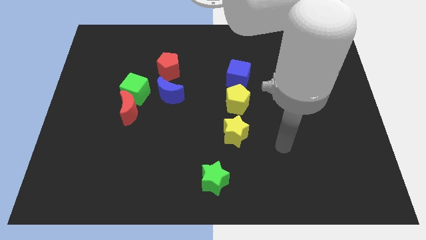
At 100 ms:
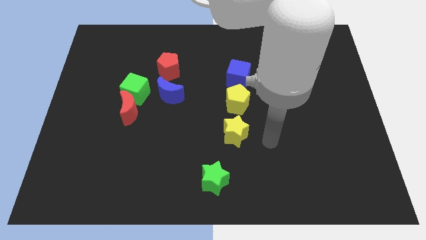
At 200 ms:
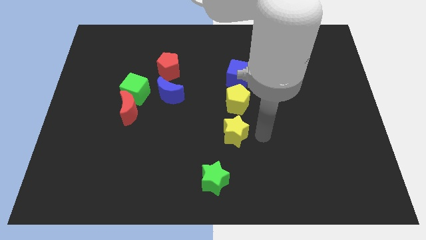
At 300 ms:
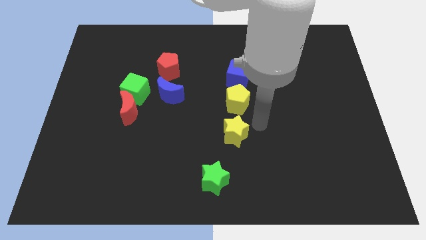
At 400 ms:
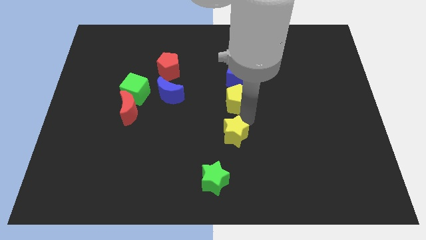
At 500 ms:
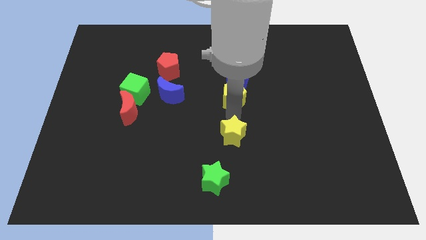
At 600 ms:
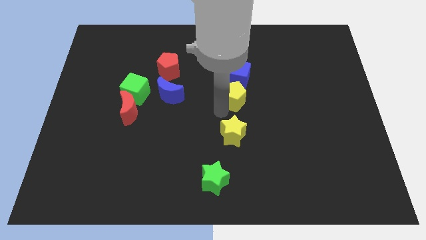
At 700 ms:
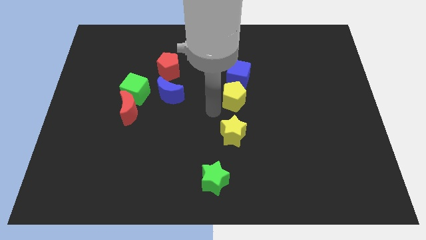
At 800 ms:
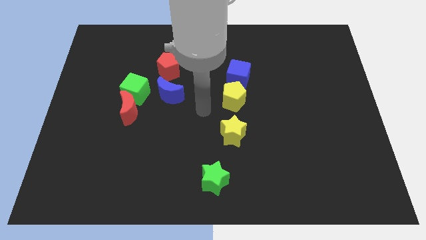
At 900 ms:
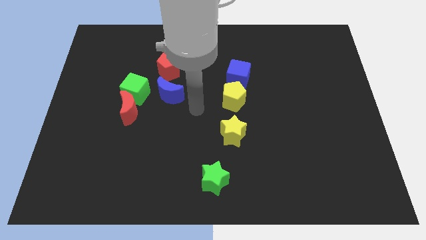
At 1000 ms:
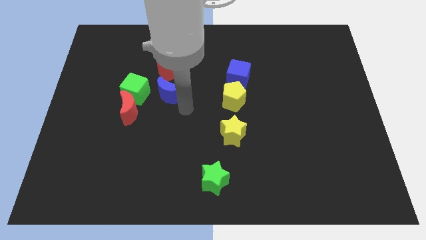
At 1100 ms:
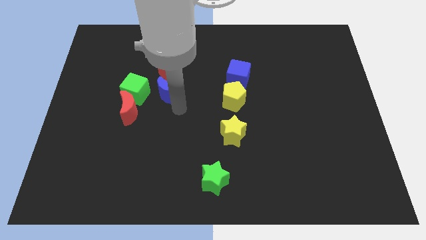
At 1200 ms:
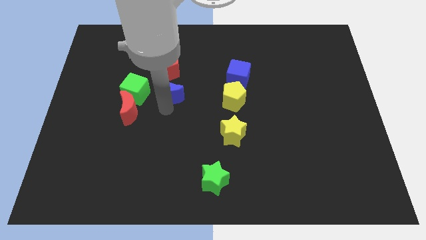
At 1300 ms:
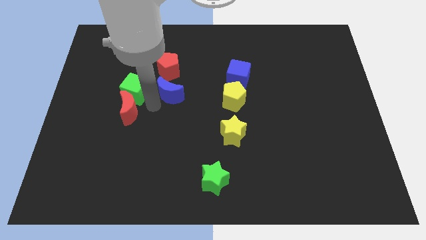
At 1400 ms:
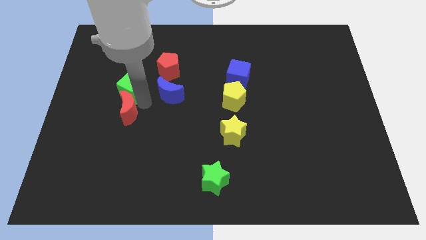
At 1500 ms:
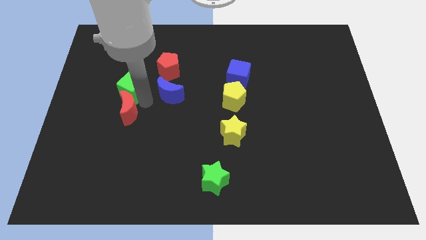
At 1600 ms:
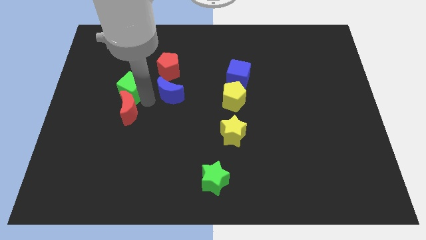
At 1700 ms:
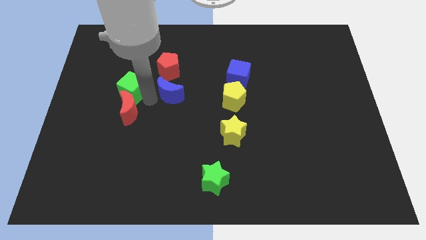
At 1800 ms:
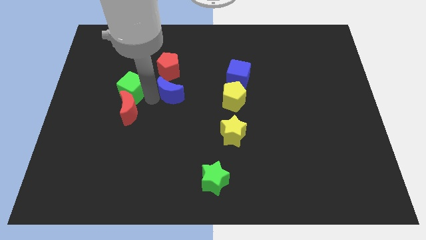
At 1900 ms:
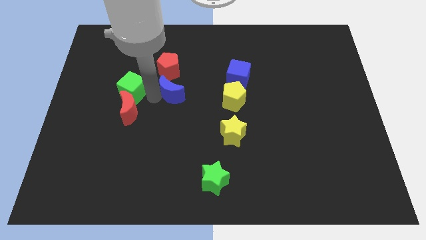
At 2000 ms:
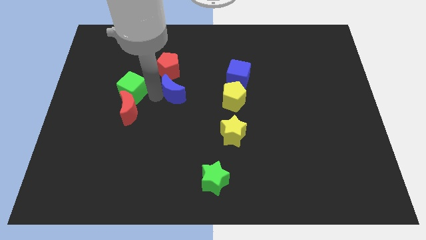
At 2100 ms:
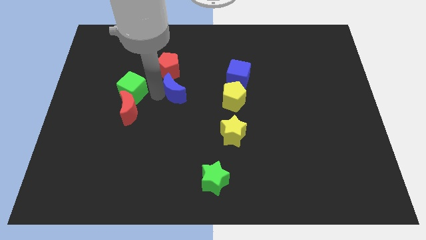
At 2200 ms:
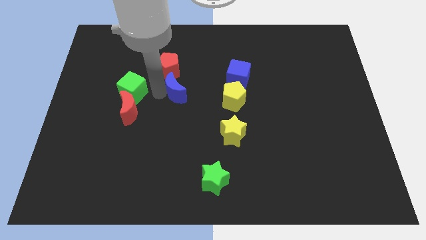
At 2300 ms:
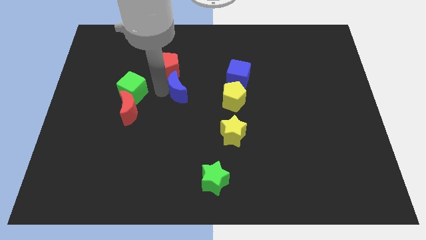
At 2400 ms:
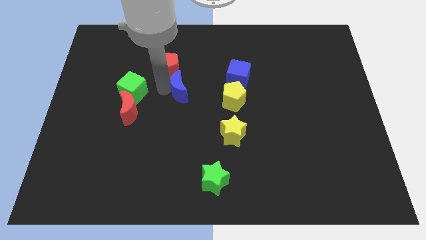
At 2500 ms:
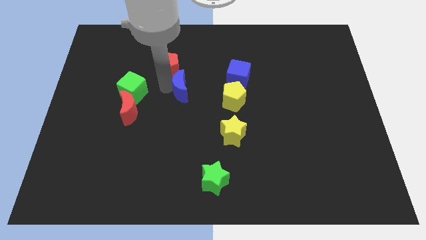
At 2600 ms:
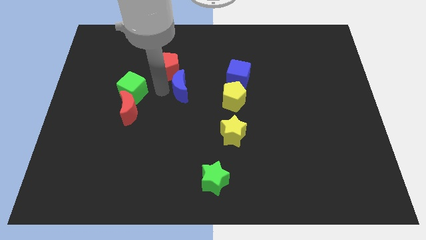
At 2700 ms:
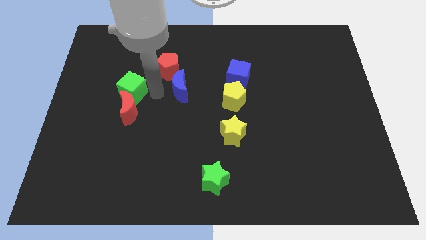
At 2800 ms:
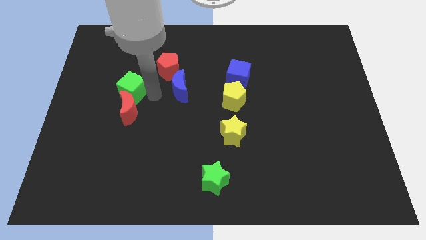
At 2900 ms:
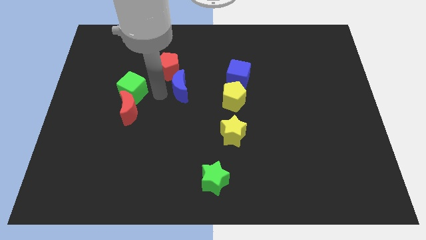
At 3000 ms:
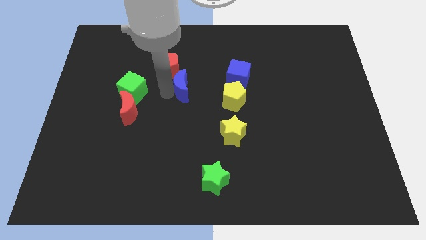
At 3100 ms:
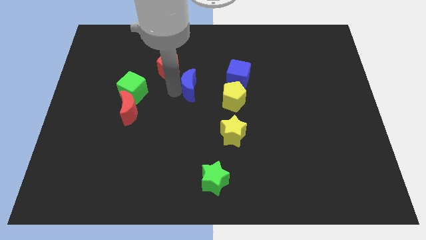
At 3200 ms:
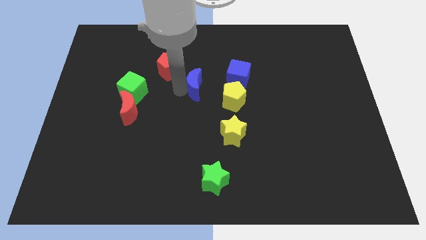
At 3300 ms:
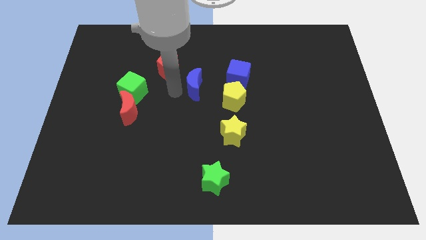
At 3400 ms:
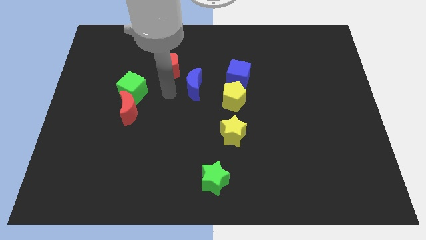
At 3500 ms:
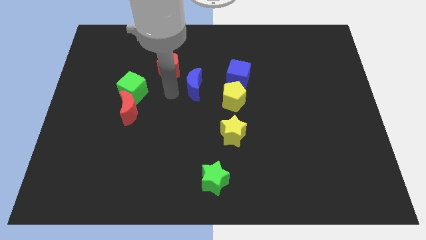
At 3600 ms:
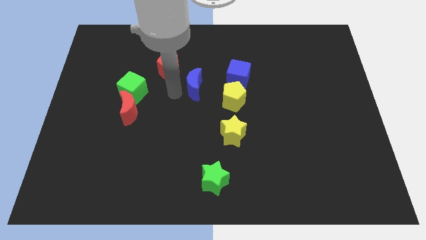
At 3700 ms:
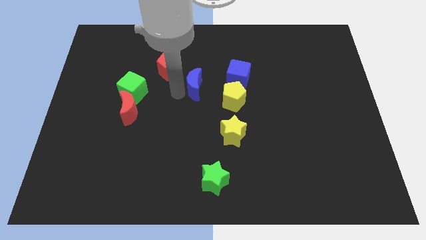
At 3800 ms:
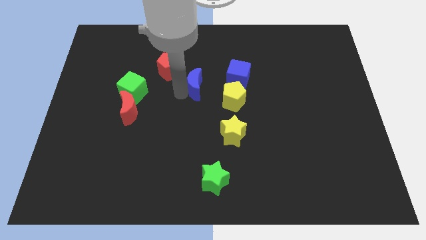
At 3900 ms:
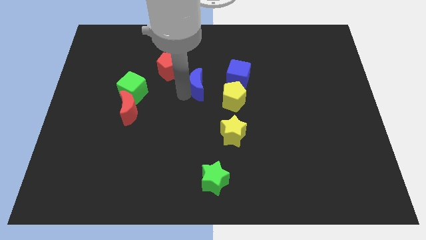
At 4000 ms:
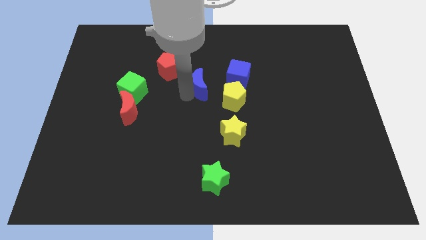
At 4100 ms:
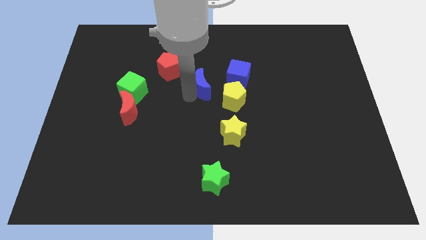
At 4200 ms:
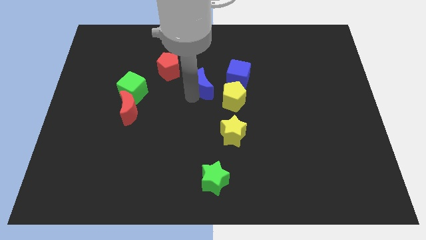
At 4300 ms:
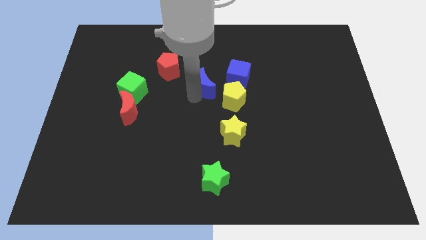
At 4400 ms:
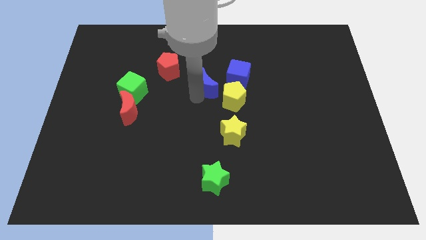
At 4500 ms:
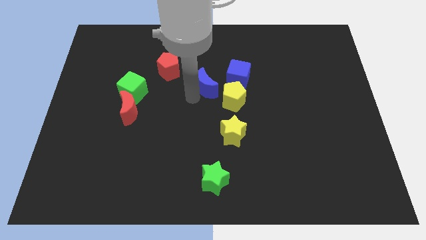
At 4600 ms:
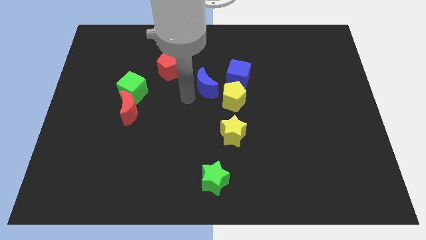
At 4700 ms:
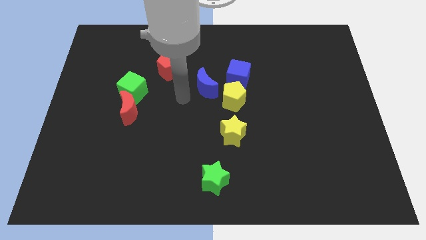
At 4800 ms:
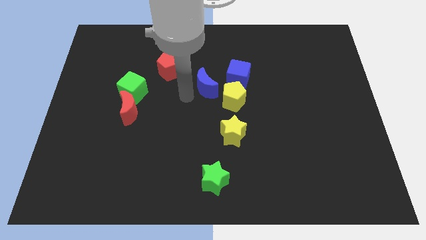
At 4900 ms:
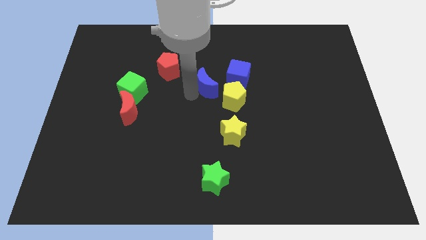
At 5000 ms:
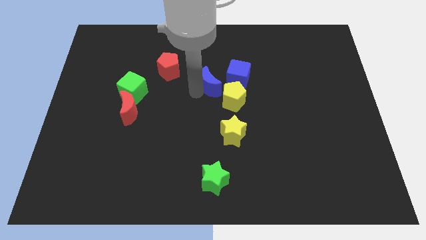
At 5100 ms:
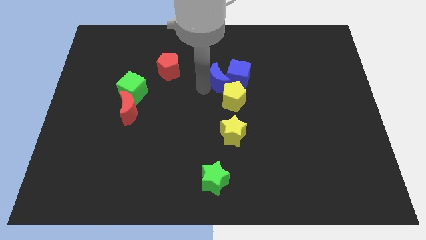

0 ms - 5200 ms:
slide the blue moon next to the blue cube

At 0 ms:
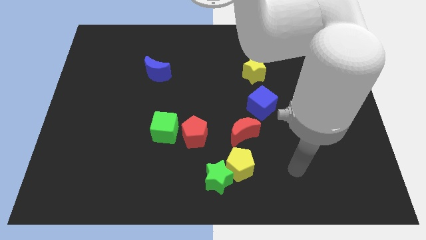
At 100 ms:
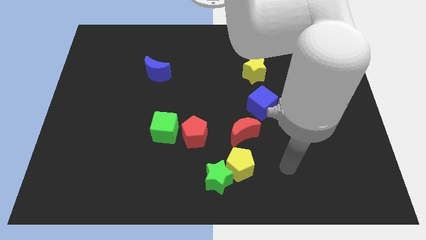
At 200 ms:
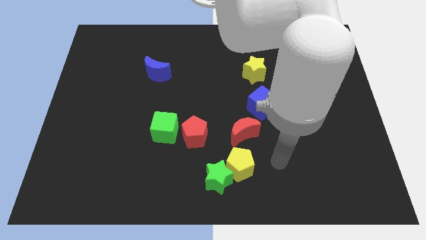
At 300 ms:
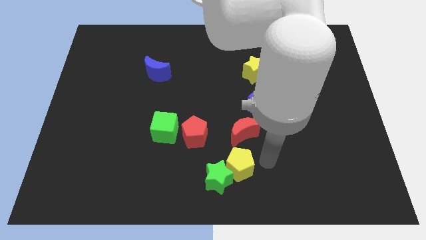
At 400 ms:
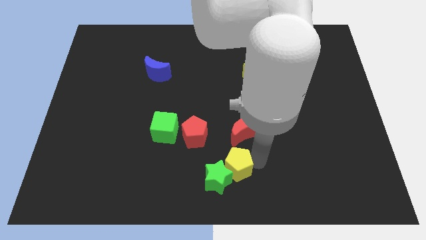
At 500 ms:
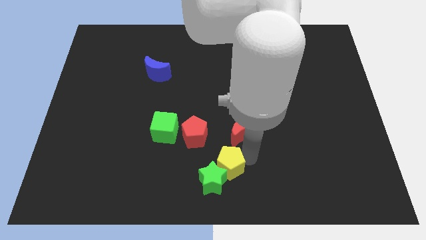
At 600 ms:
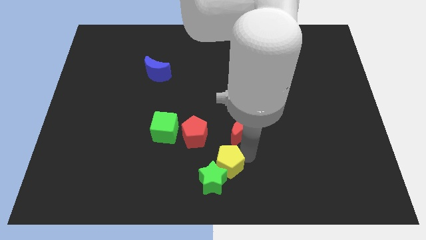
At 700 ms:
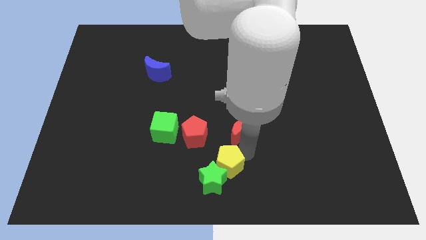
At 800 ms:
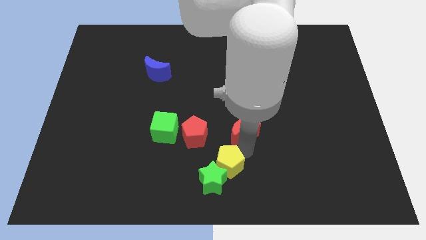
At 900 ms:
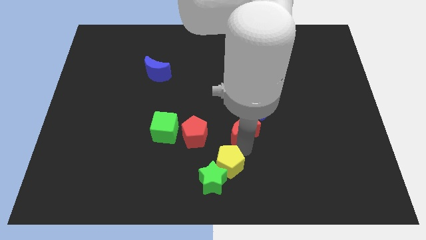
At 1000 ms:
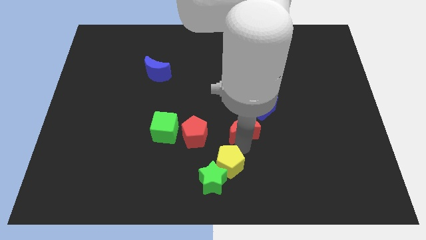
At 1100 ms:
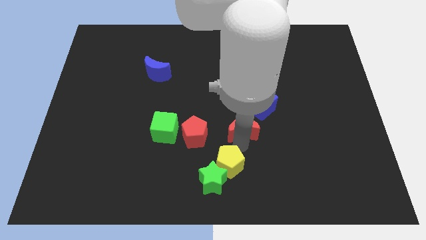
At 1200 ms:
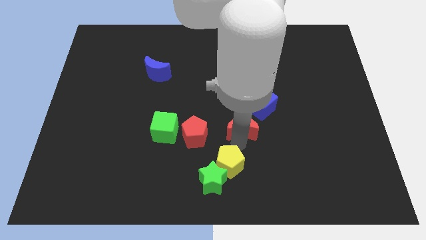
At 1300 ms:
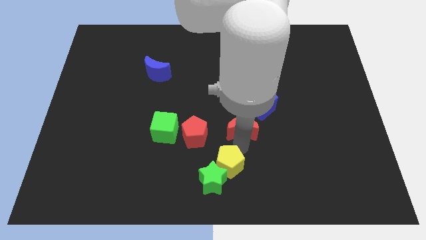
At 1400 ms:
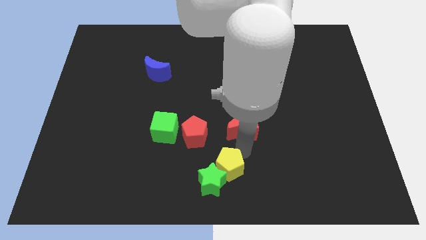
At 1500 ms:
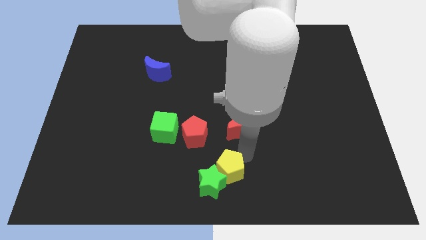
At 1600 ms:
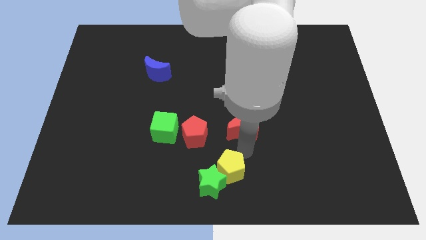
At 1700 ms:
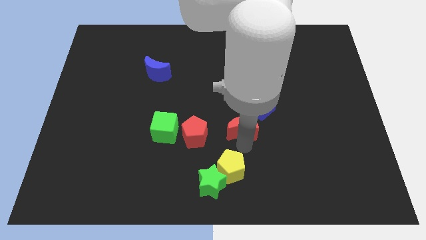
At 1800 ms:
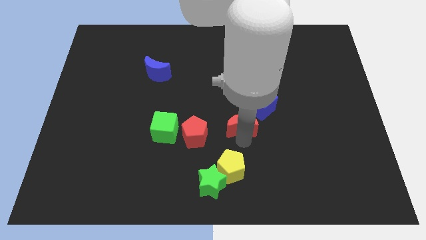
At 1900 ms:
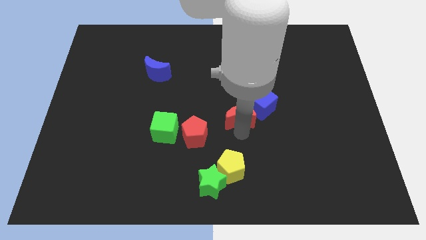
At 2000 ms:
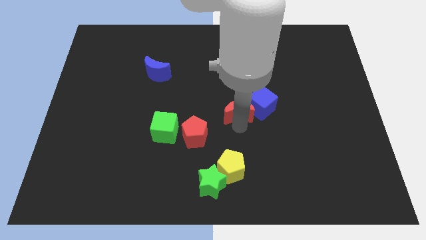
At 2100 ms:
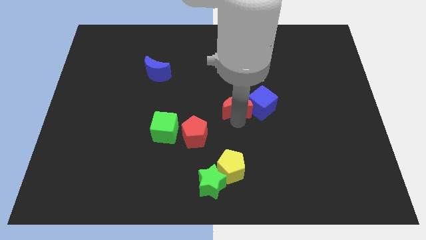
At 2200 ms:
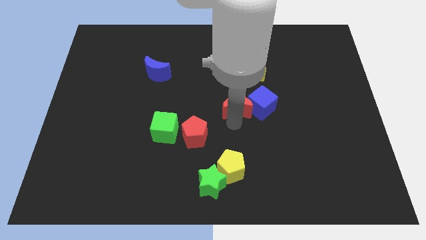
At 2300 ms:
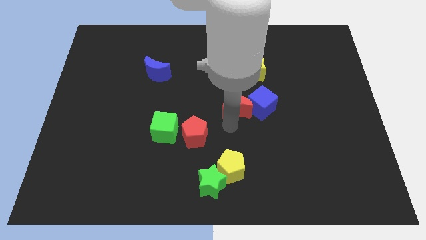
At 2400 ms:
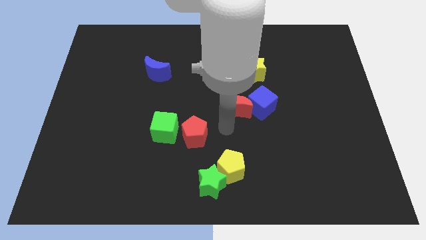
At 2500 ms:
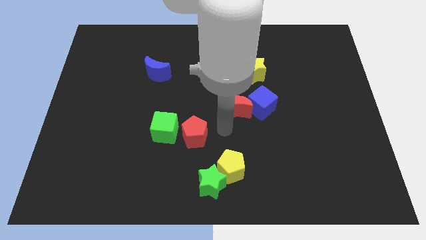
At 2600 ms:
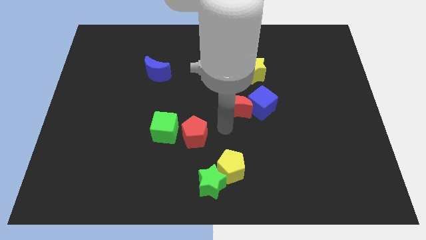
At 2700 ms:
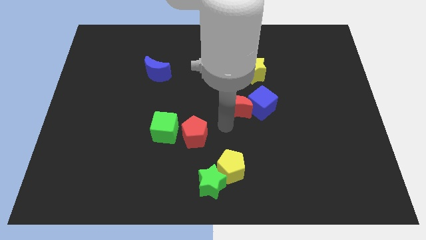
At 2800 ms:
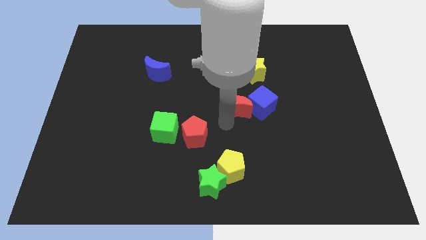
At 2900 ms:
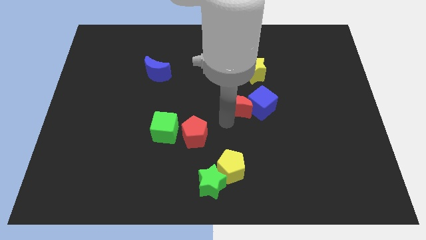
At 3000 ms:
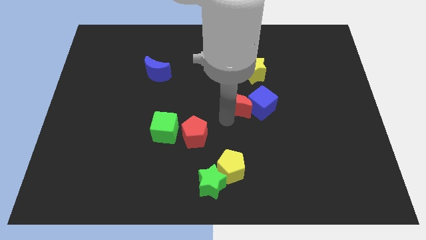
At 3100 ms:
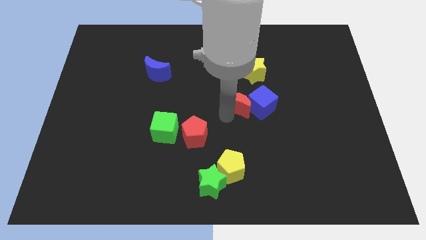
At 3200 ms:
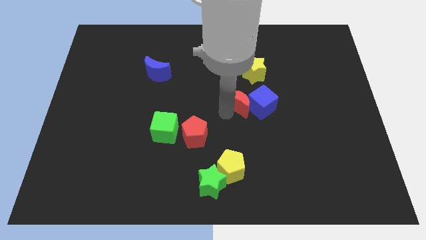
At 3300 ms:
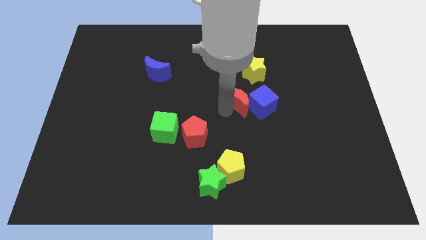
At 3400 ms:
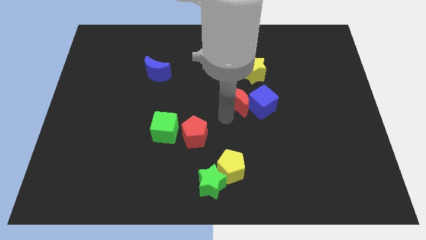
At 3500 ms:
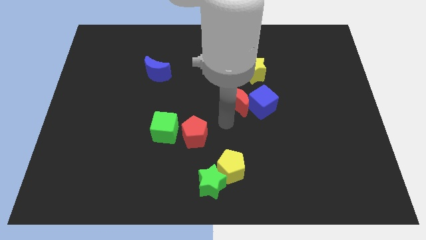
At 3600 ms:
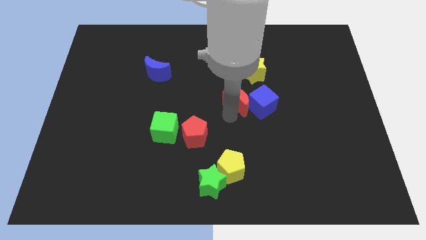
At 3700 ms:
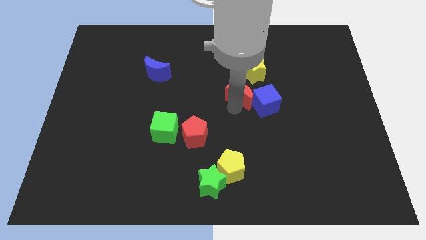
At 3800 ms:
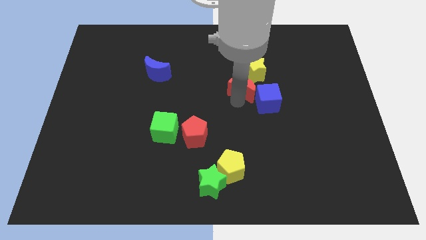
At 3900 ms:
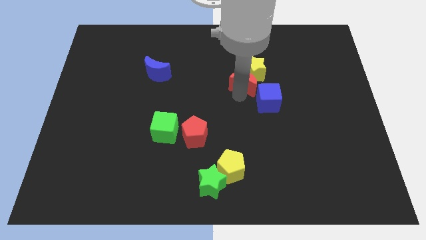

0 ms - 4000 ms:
push the red moon next to the yellow star
